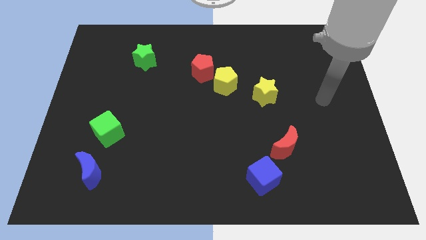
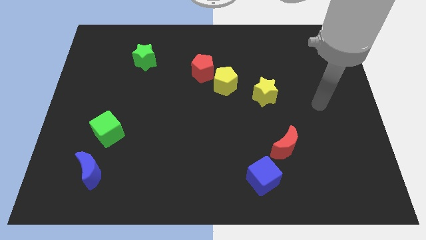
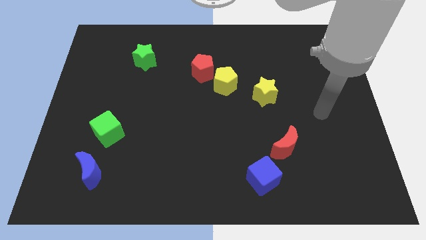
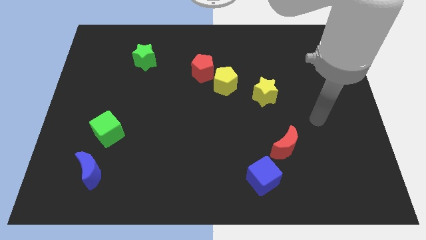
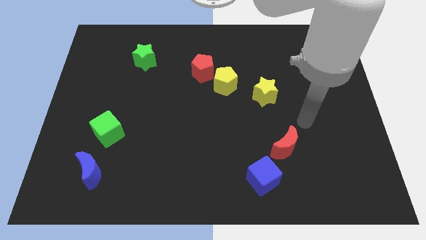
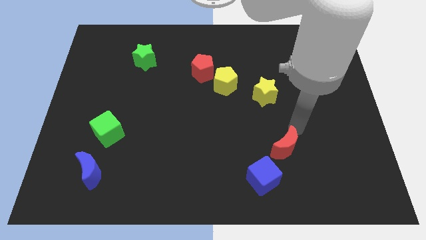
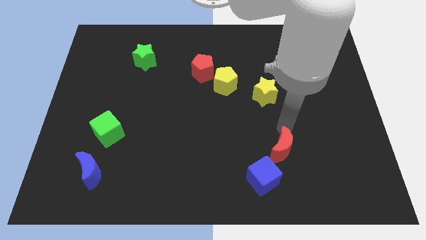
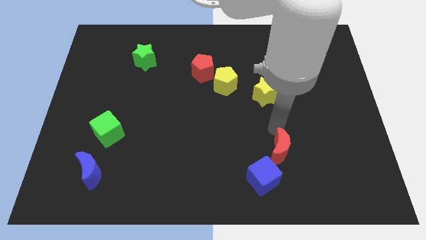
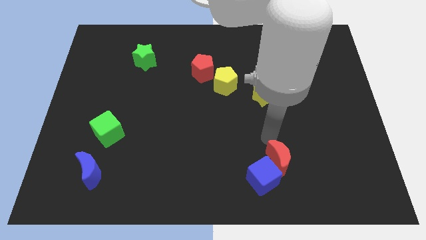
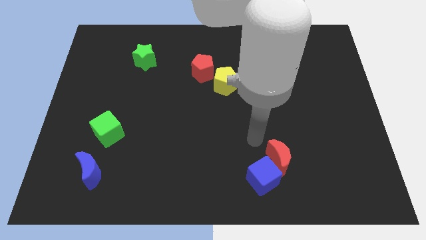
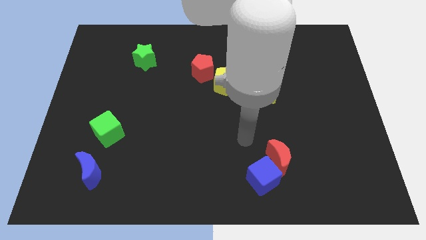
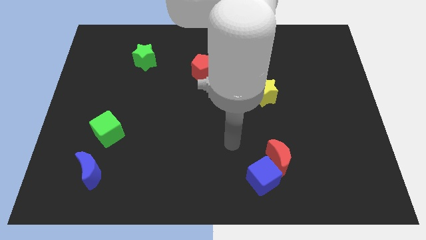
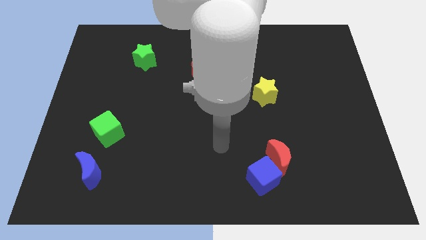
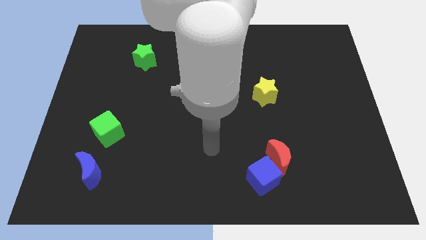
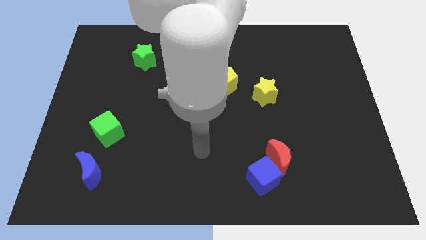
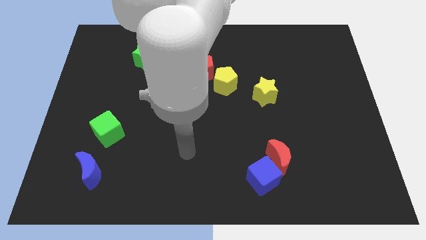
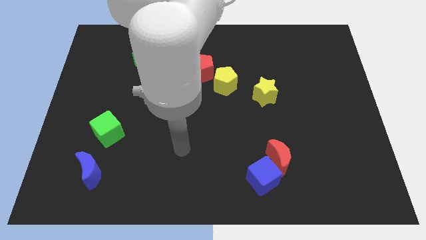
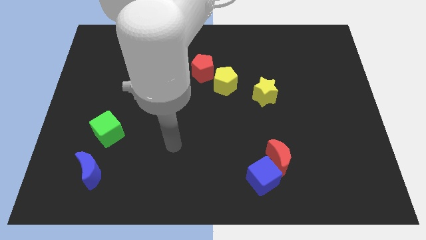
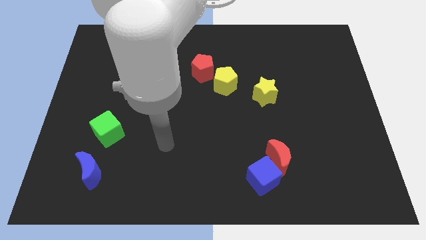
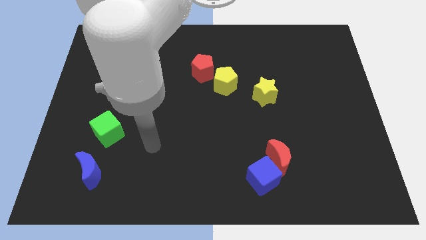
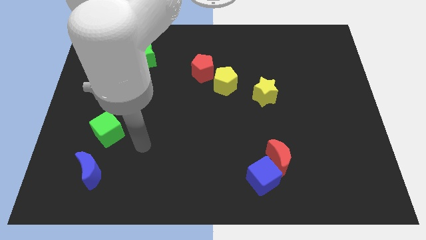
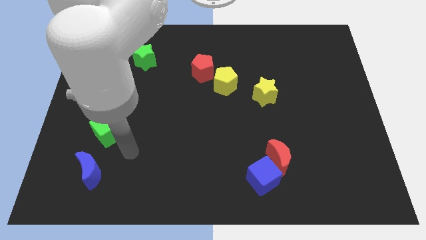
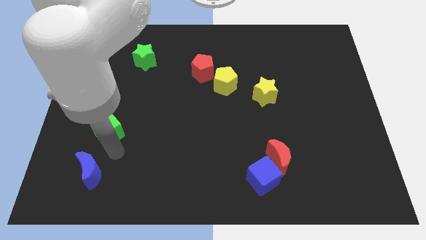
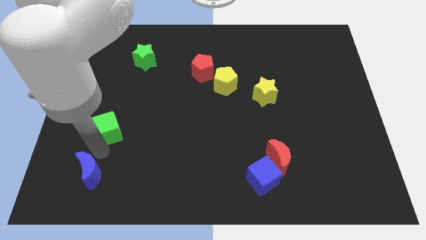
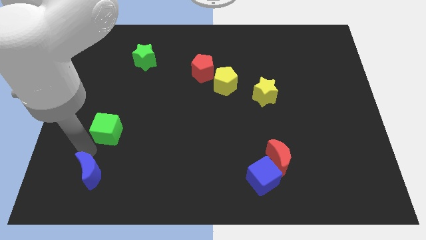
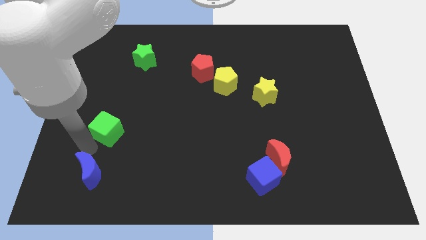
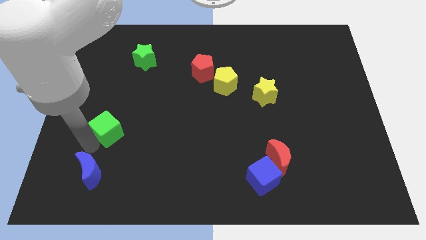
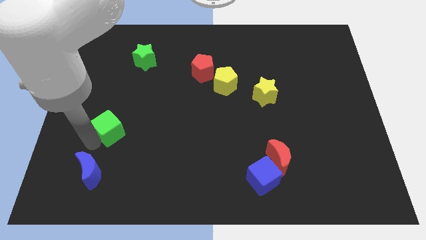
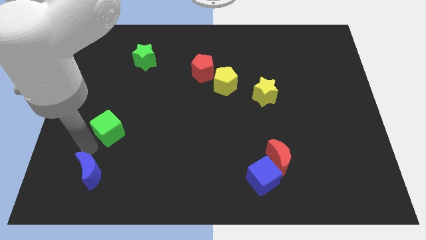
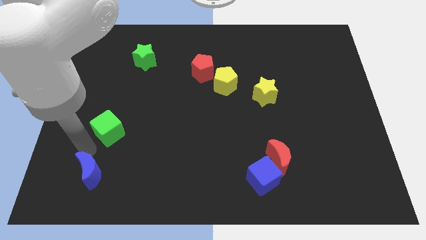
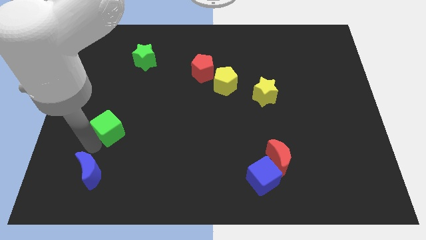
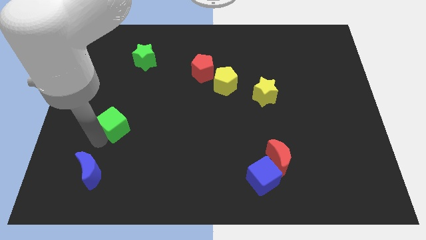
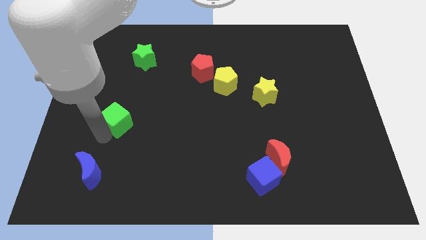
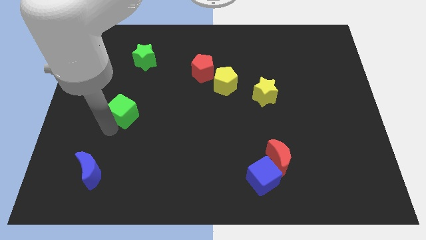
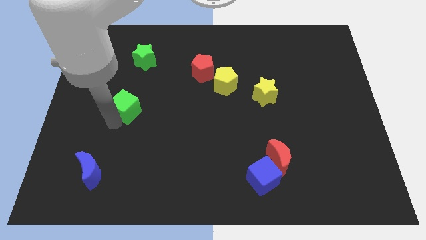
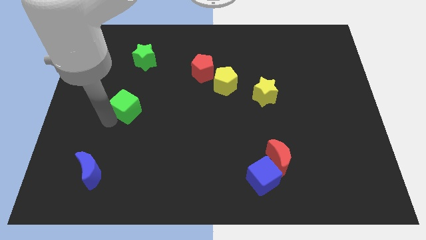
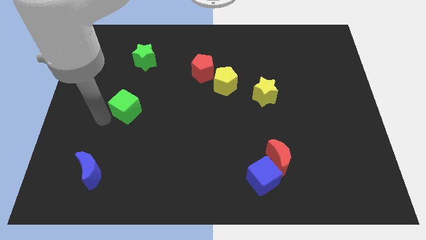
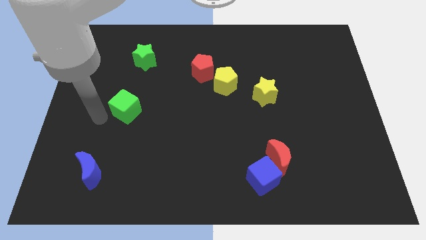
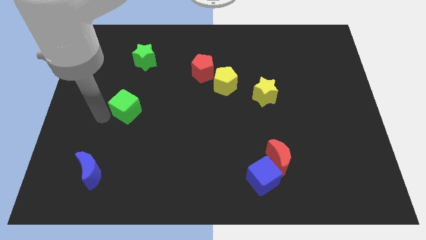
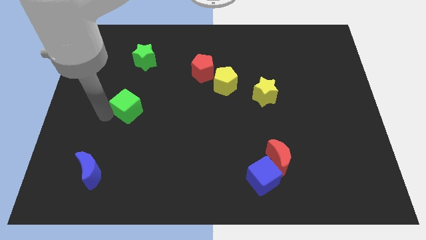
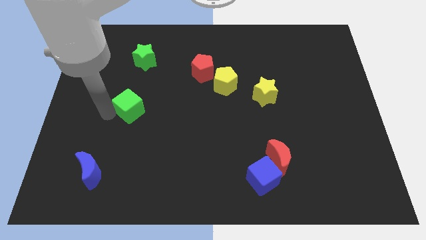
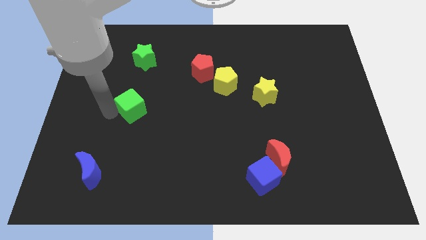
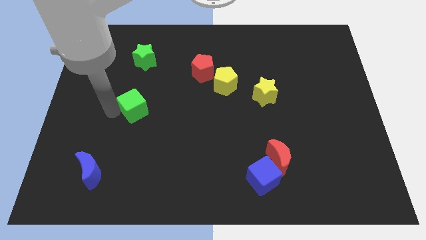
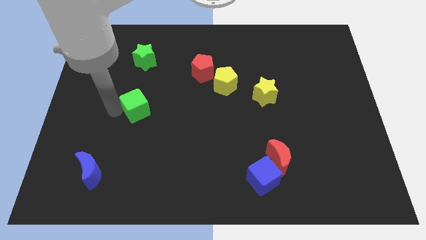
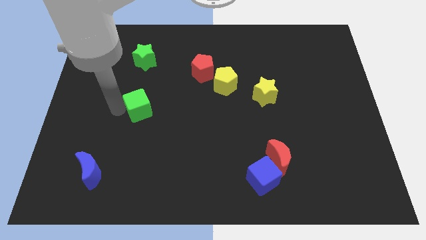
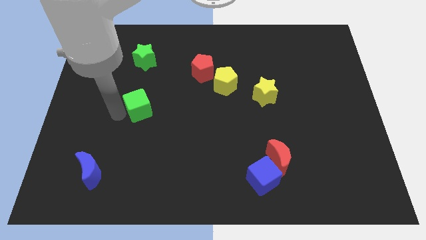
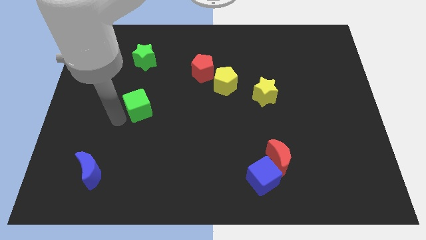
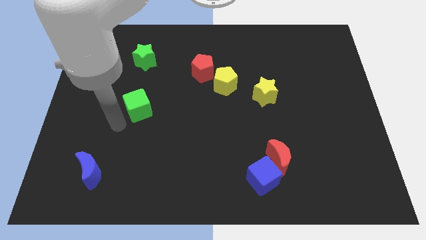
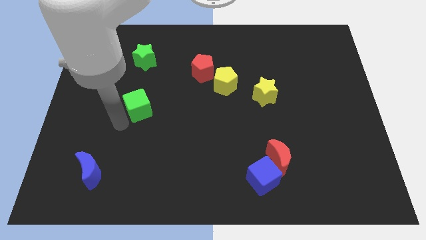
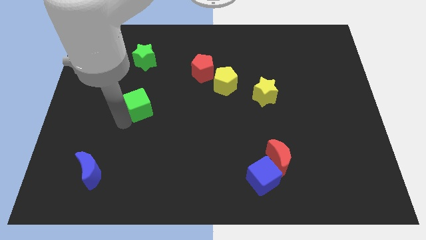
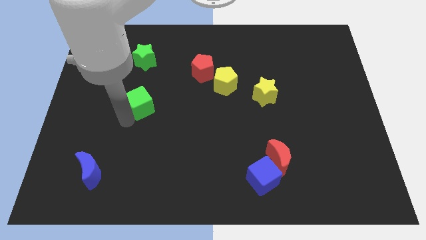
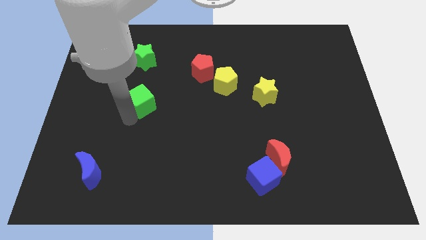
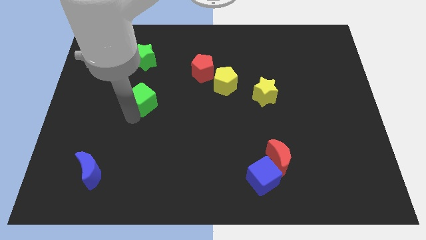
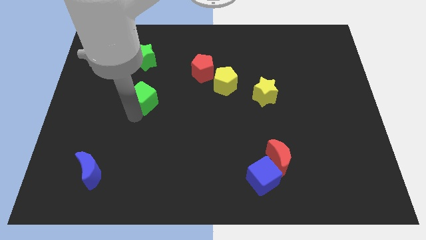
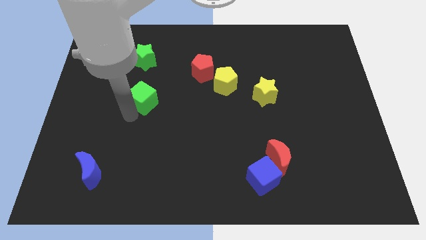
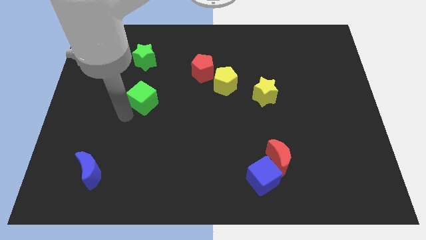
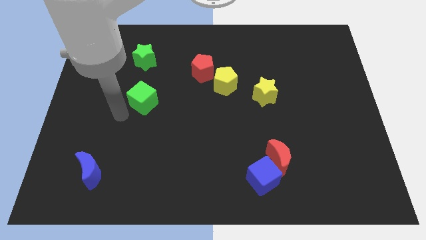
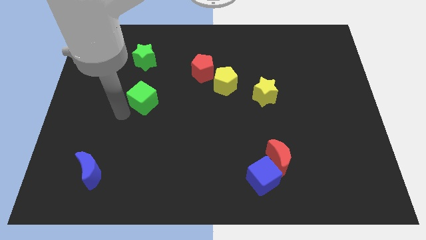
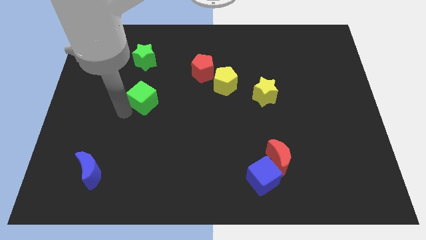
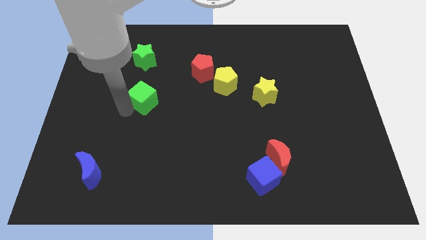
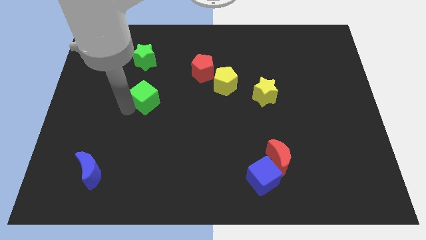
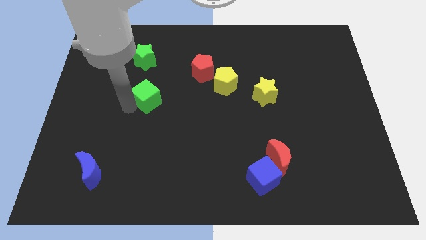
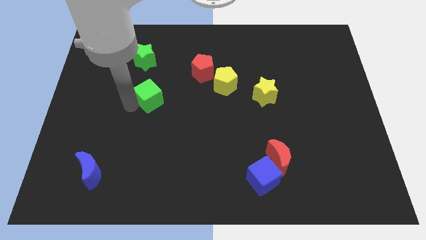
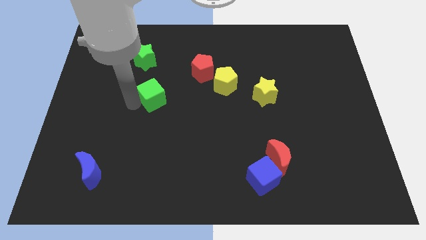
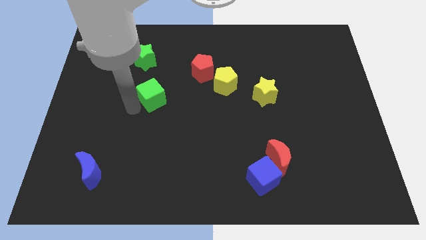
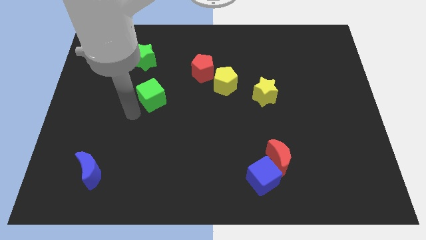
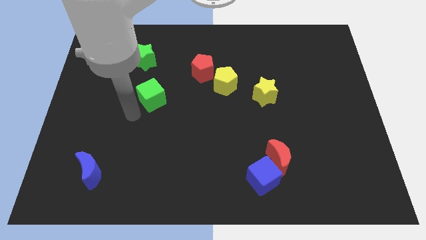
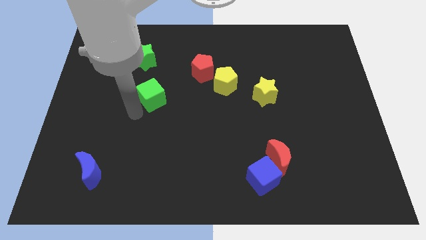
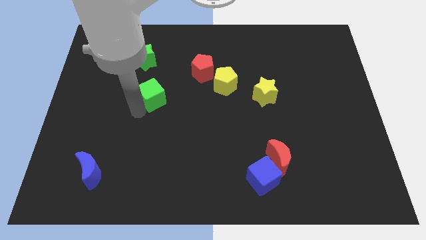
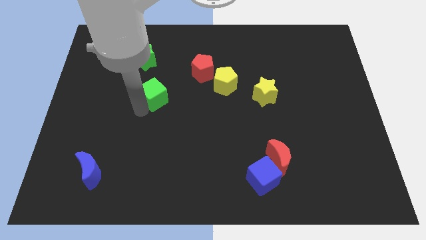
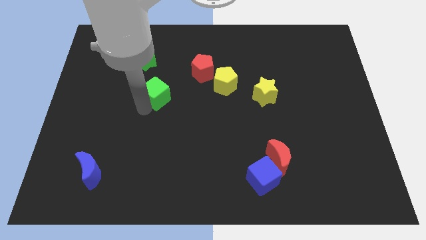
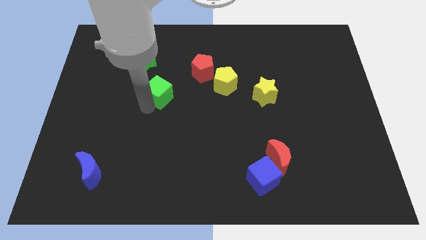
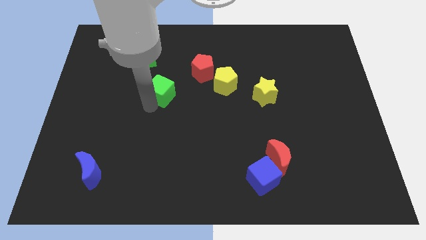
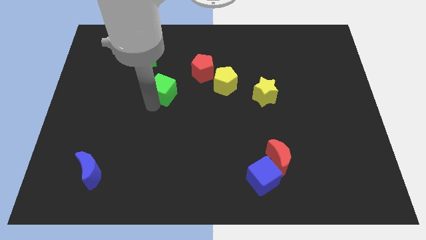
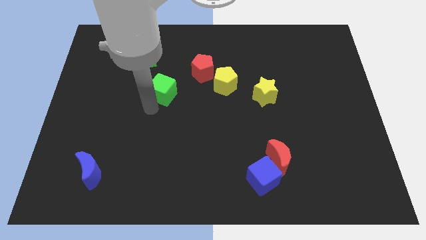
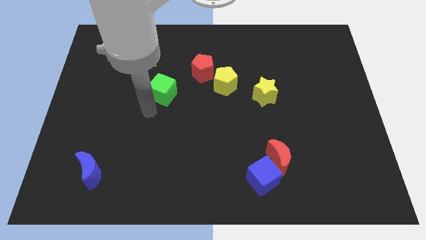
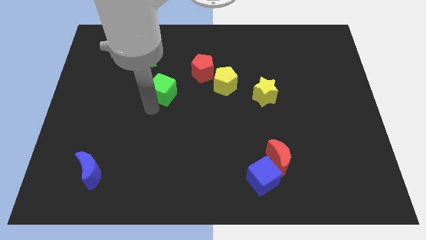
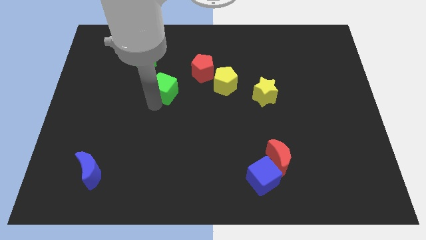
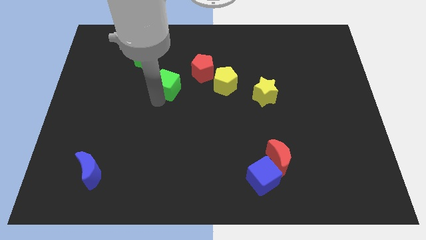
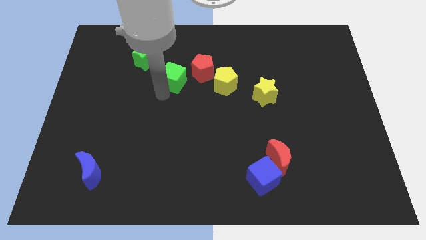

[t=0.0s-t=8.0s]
move the green cube up and to the right
